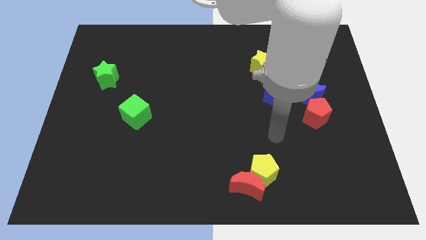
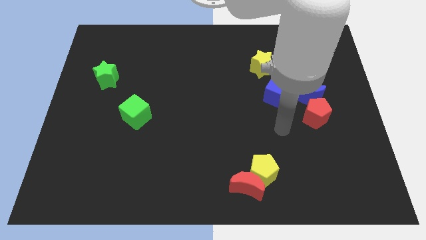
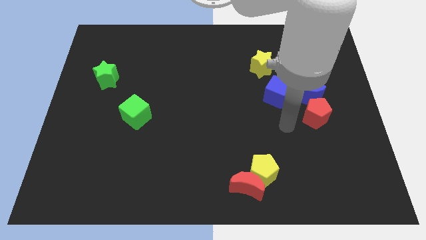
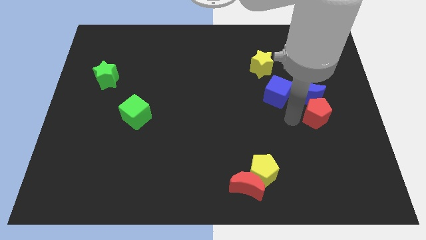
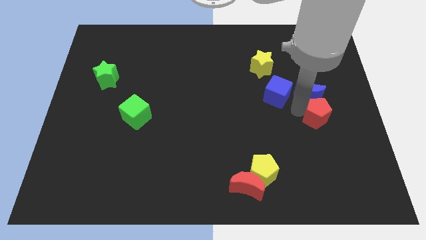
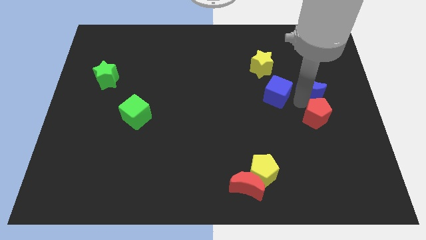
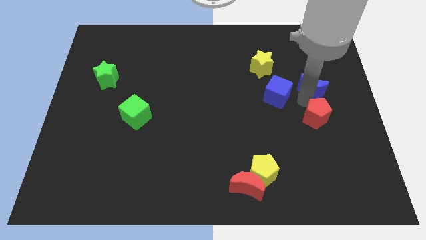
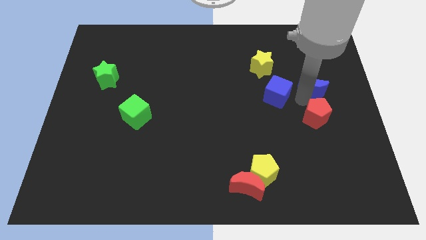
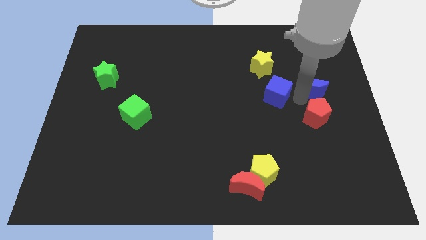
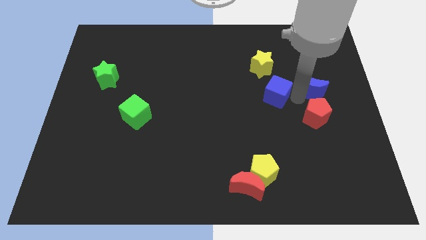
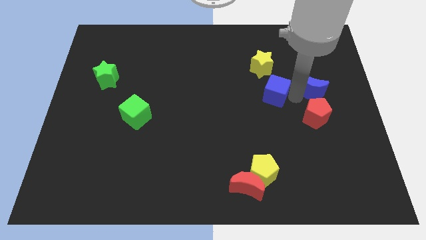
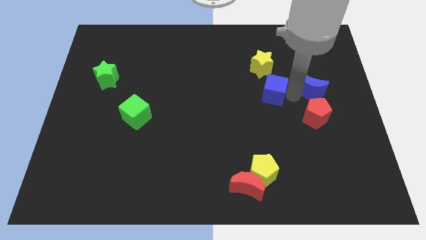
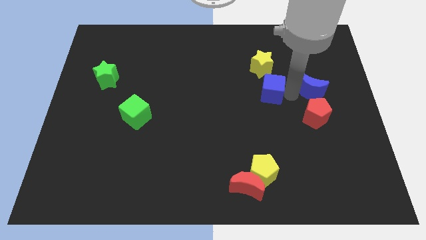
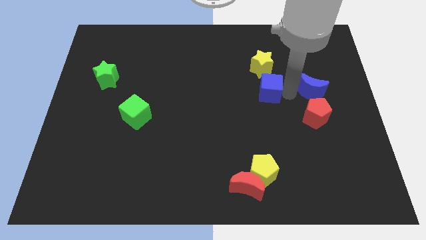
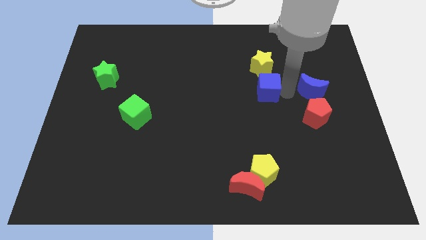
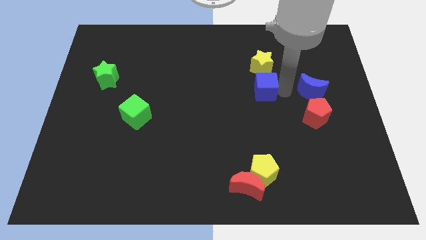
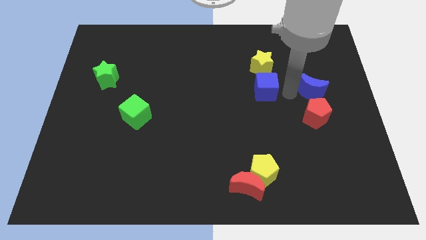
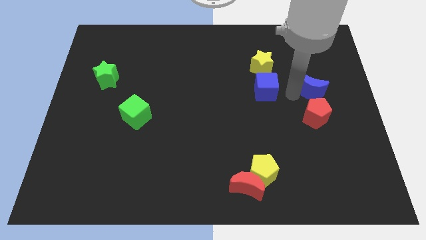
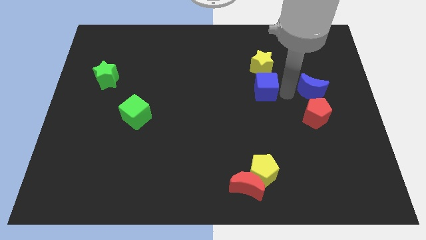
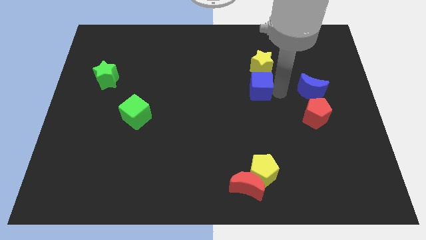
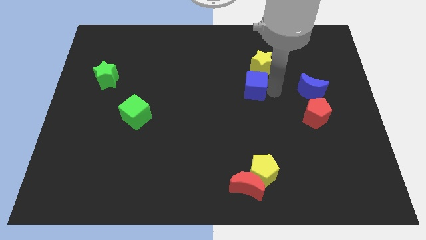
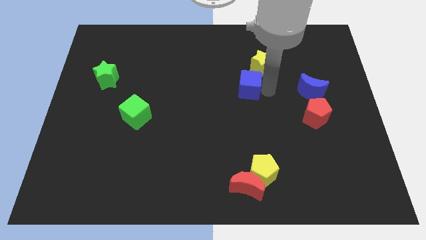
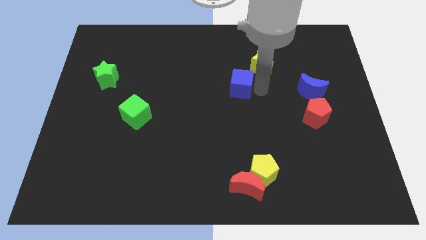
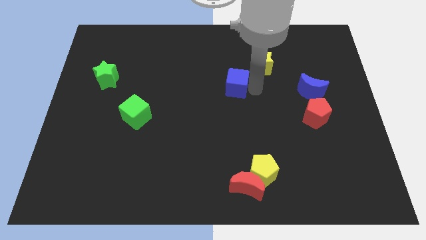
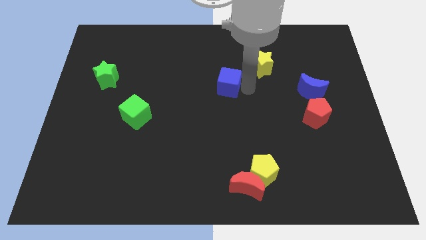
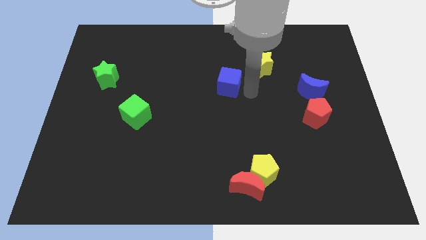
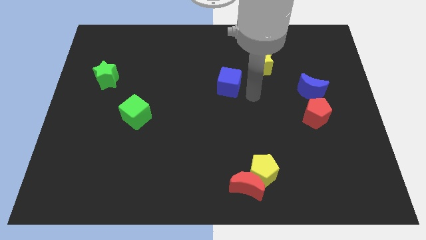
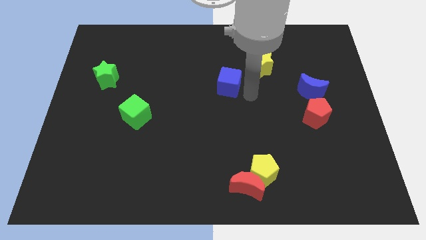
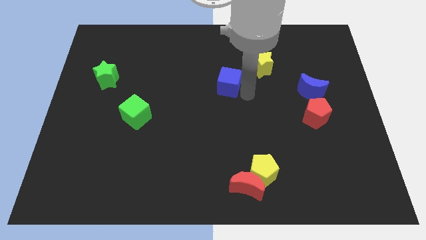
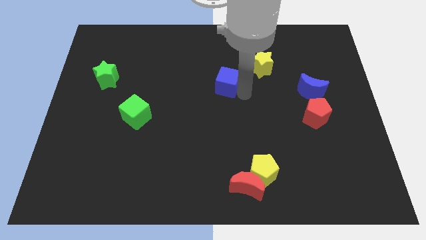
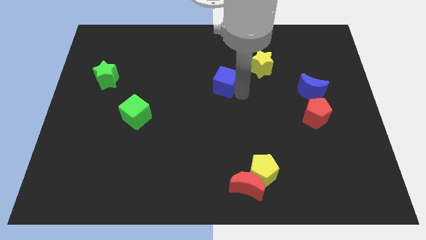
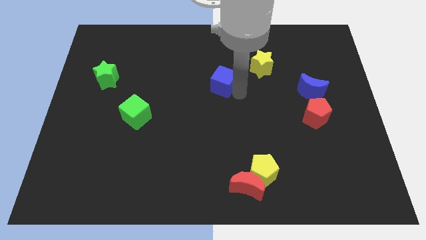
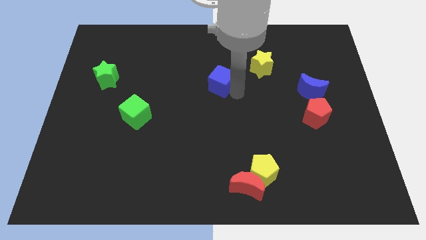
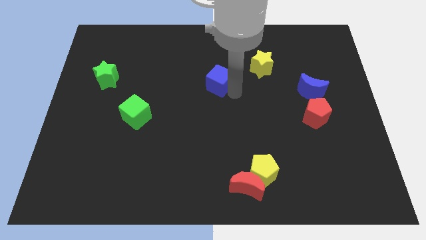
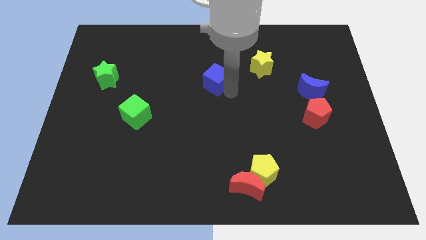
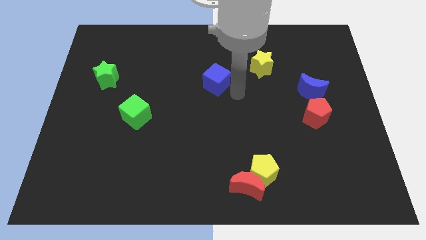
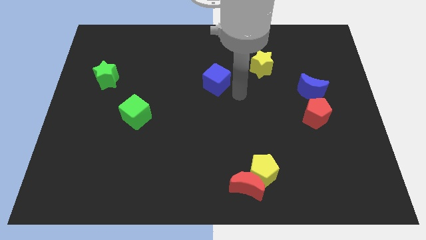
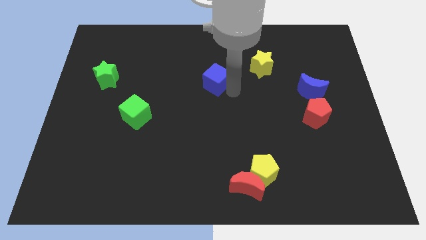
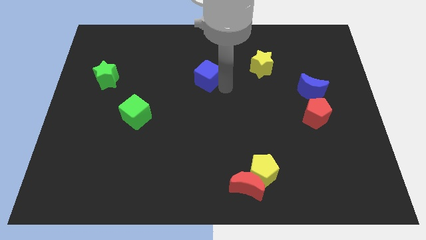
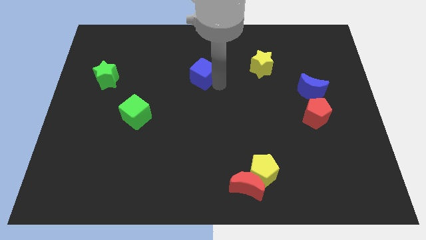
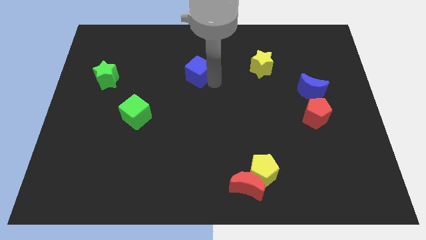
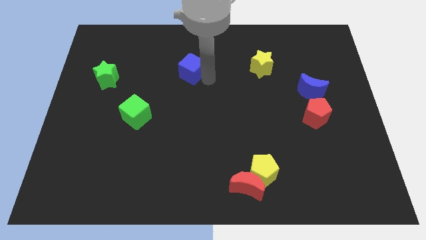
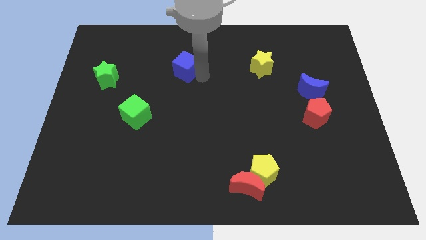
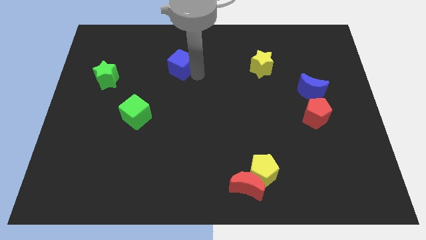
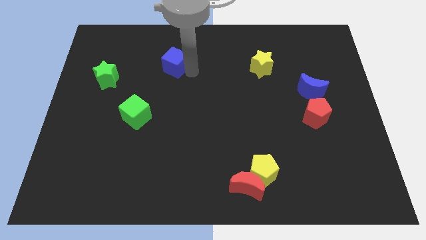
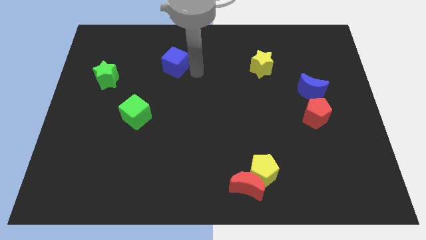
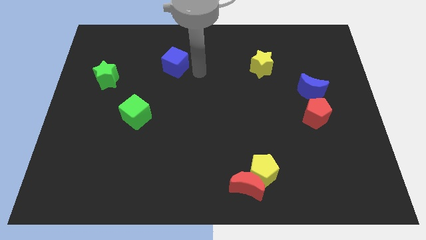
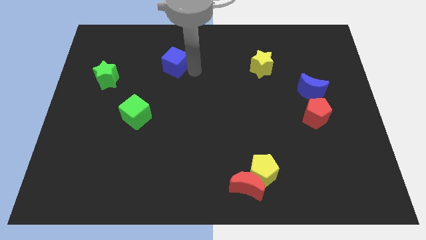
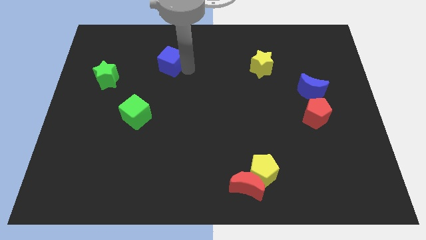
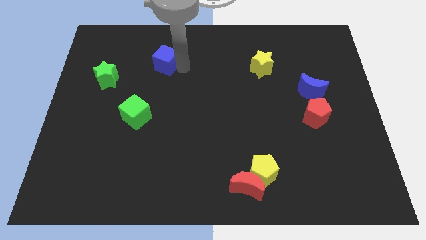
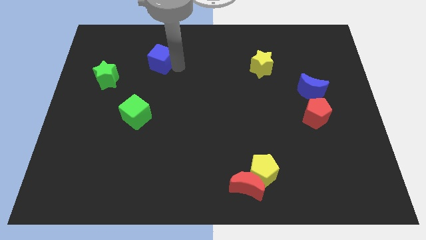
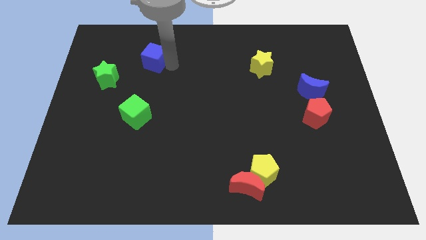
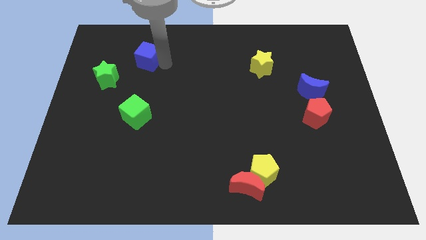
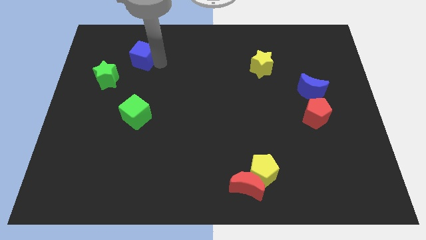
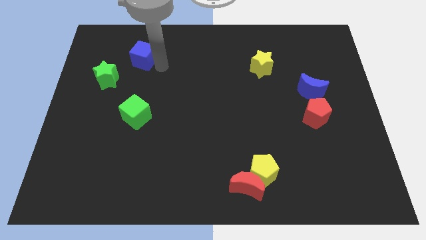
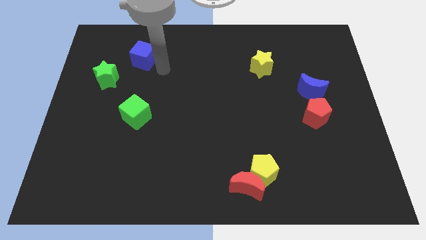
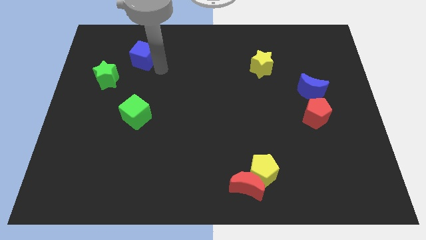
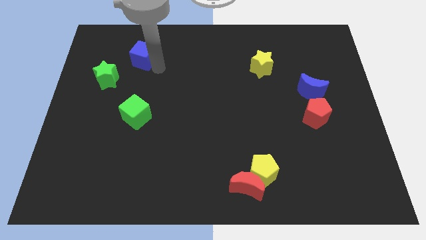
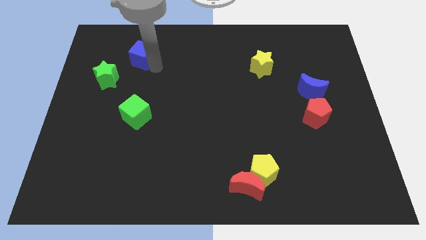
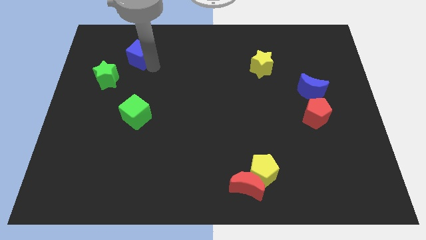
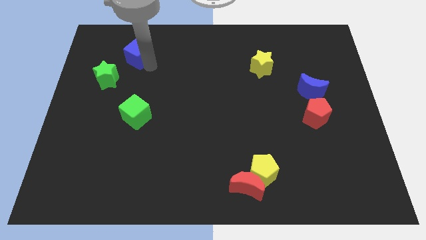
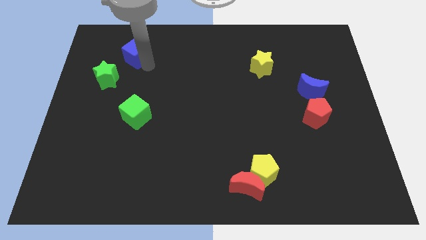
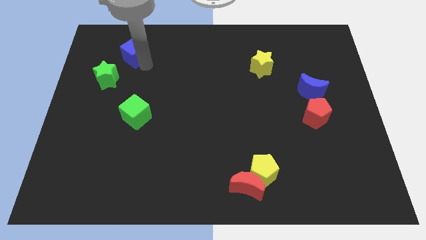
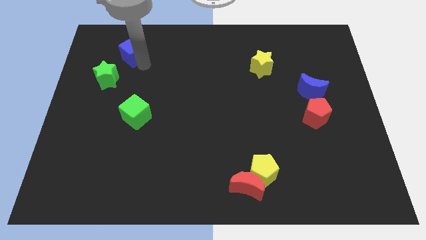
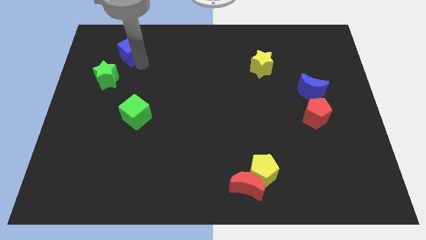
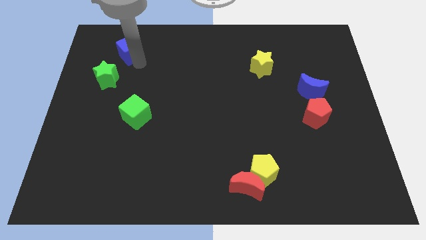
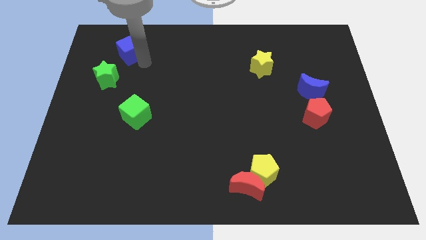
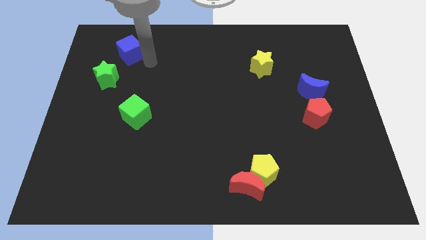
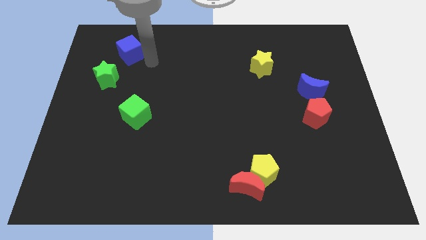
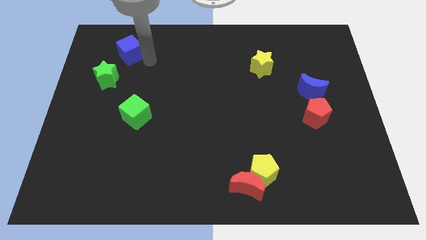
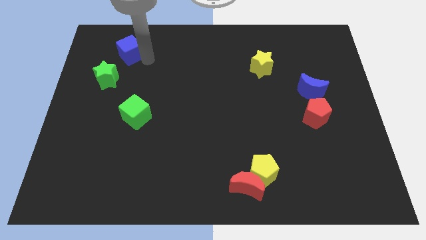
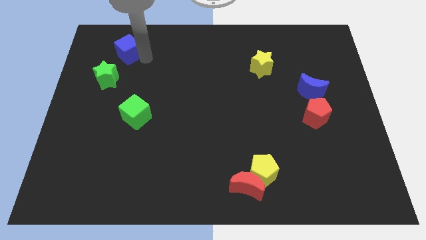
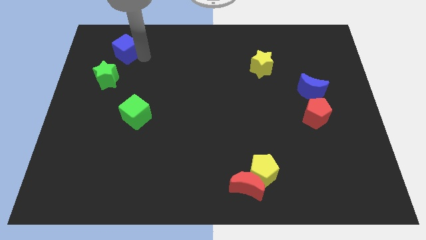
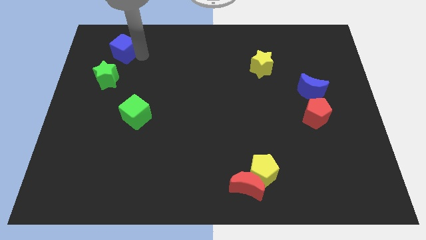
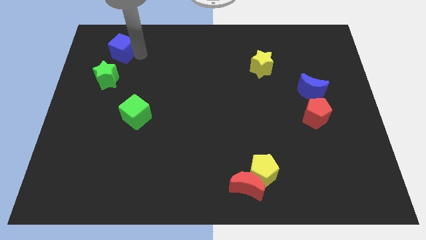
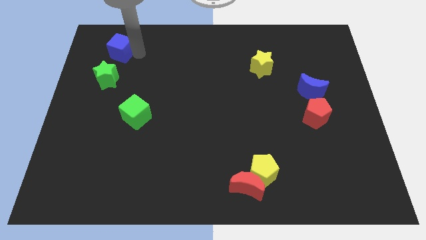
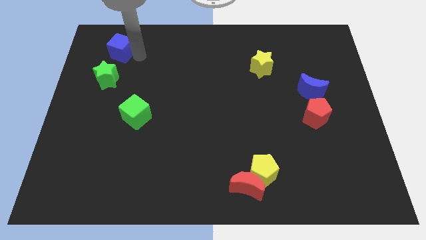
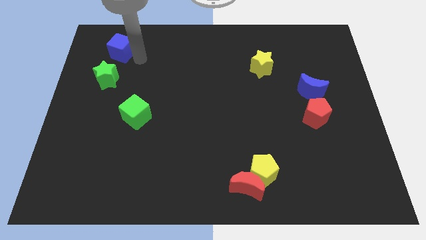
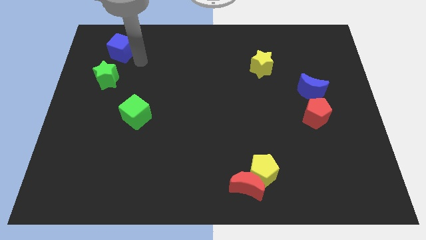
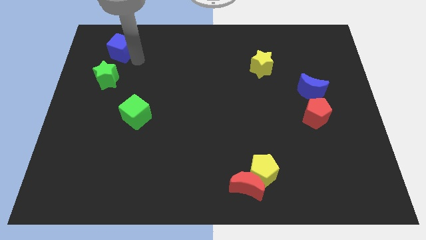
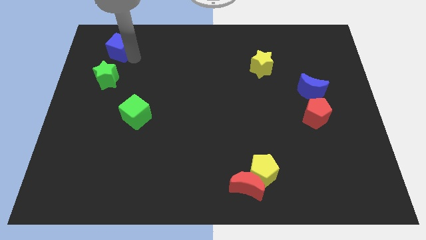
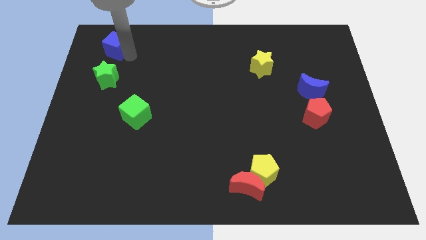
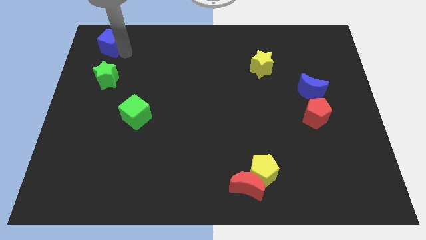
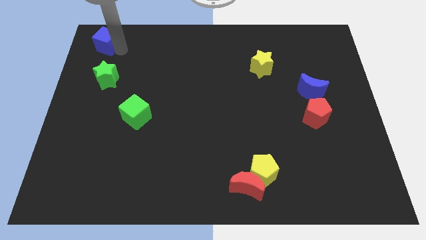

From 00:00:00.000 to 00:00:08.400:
move the blue cube to the top left
